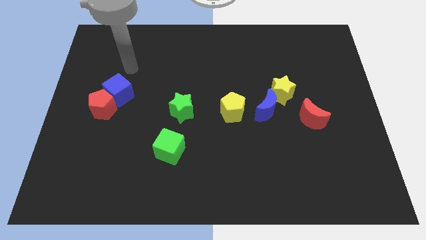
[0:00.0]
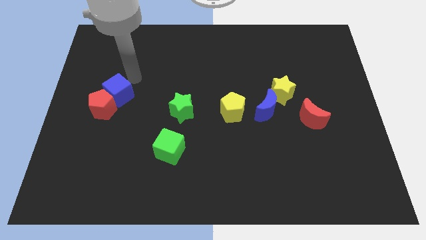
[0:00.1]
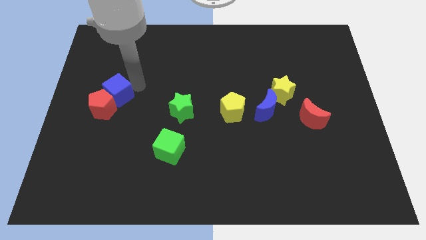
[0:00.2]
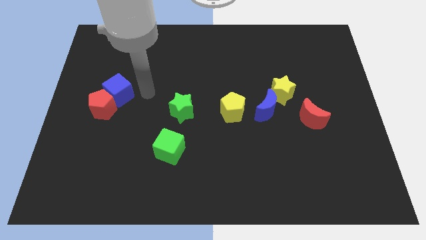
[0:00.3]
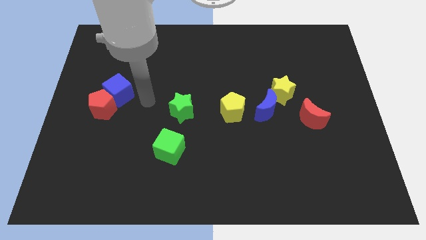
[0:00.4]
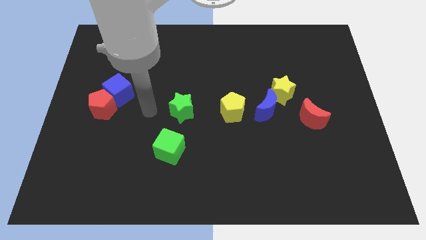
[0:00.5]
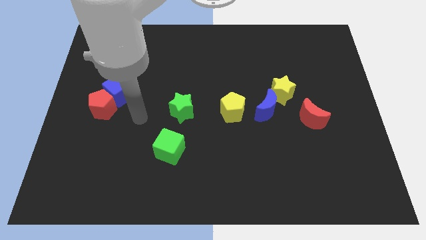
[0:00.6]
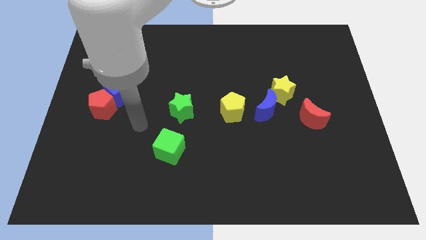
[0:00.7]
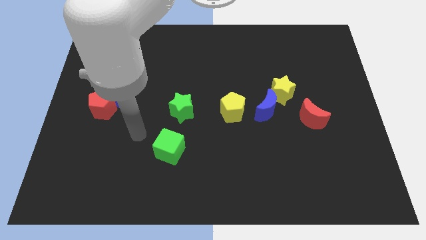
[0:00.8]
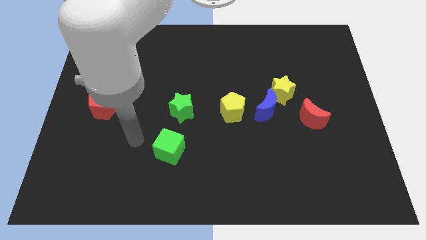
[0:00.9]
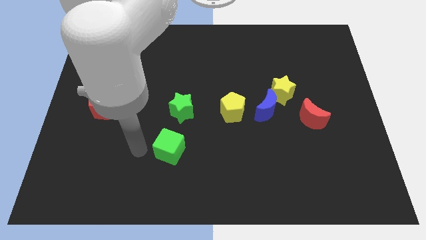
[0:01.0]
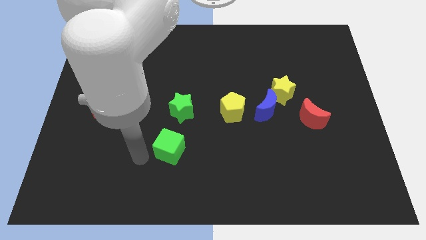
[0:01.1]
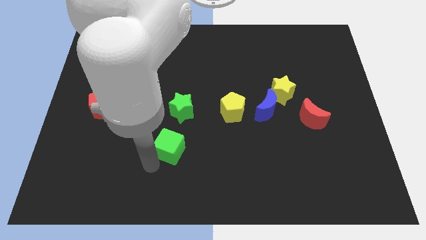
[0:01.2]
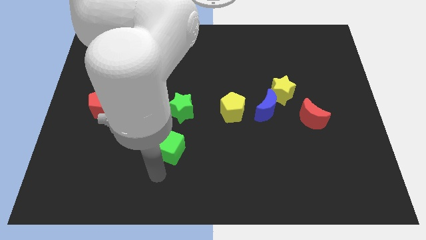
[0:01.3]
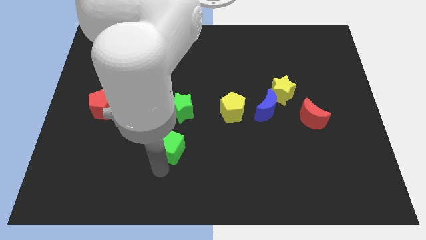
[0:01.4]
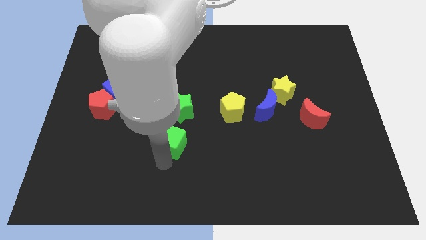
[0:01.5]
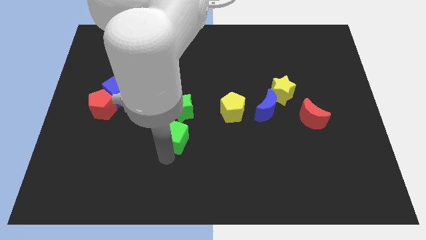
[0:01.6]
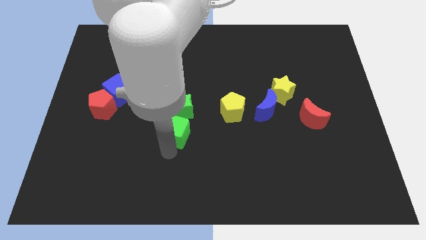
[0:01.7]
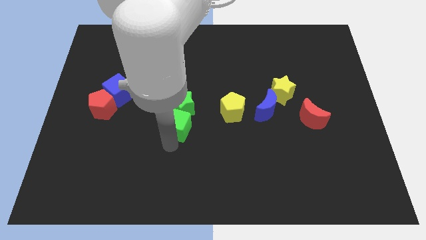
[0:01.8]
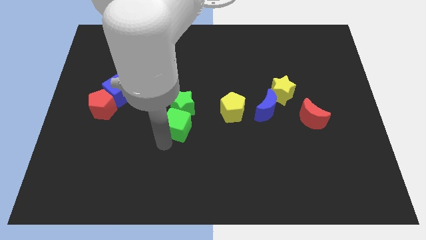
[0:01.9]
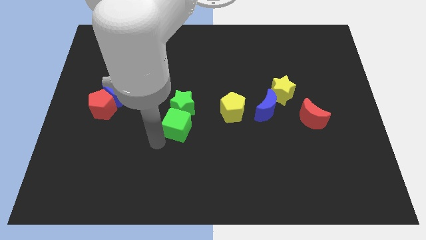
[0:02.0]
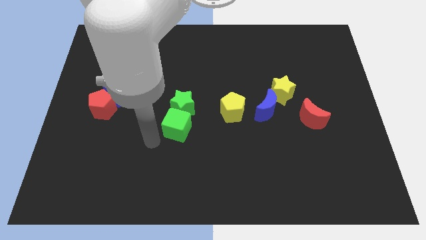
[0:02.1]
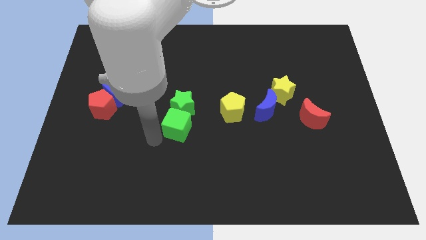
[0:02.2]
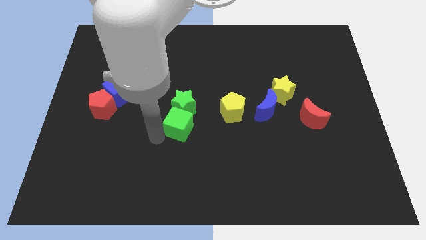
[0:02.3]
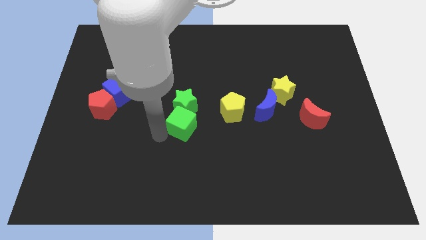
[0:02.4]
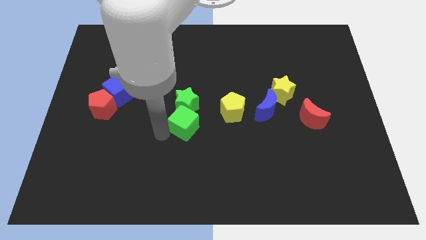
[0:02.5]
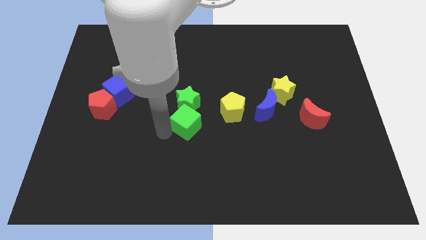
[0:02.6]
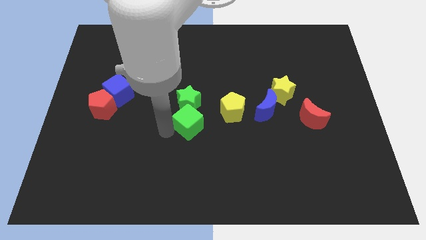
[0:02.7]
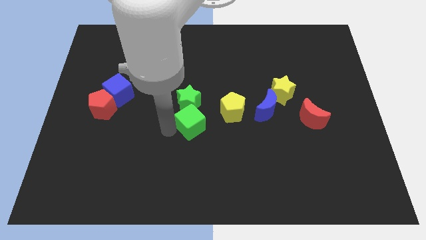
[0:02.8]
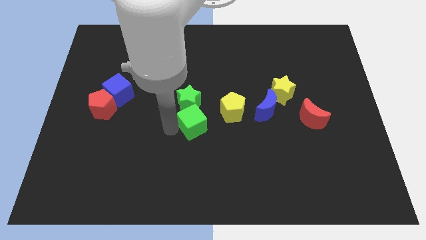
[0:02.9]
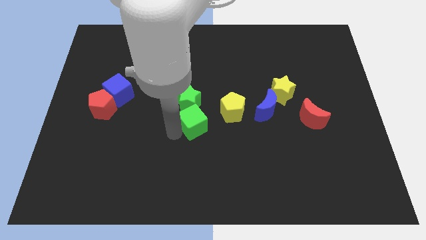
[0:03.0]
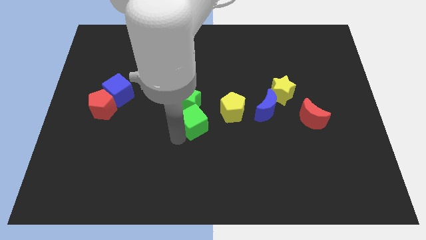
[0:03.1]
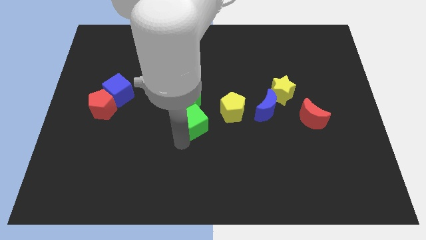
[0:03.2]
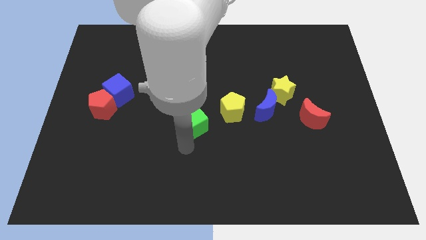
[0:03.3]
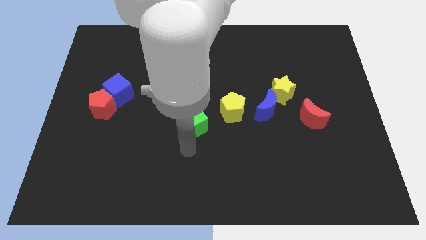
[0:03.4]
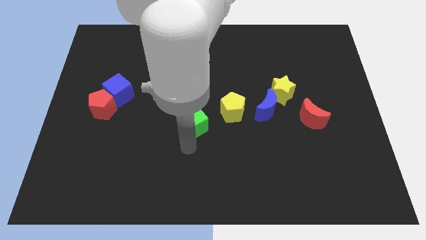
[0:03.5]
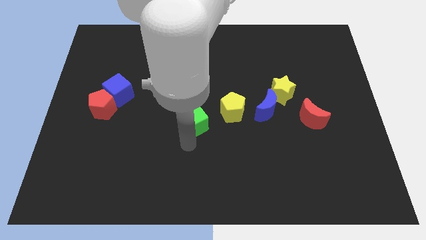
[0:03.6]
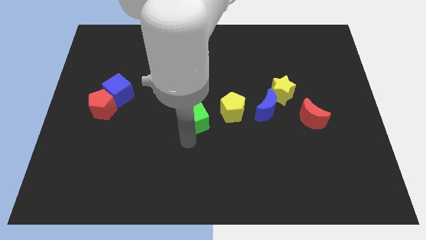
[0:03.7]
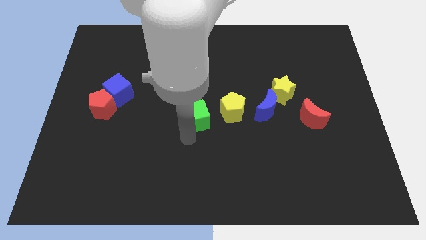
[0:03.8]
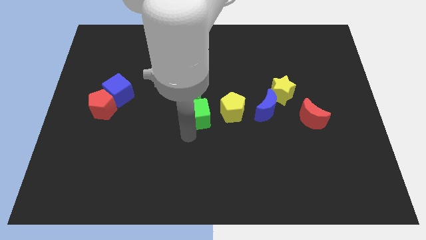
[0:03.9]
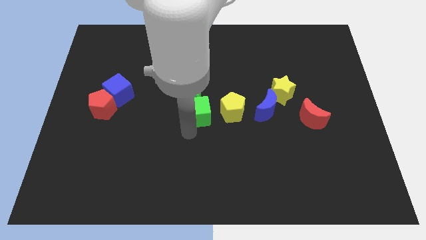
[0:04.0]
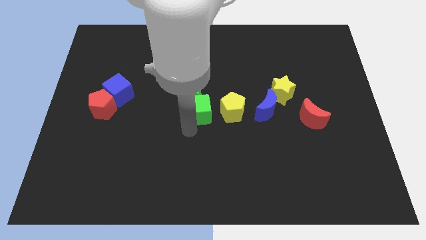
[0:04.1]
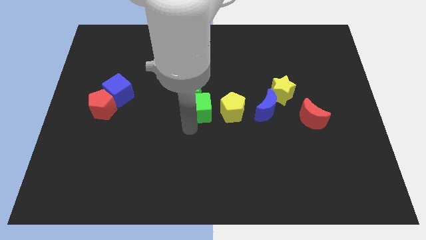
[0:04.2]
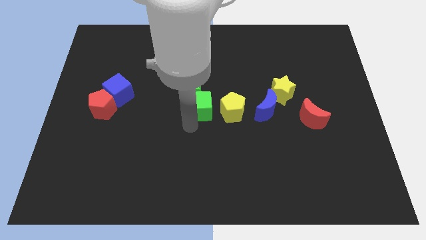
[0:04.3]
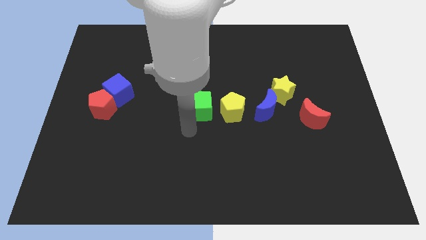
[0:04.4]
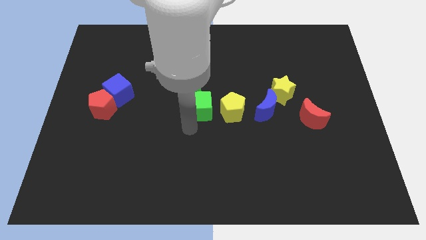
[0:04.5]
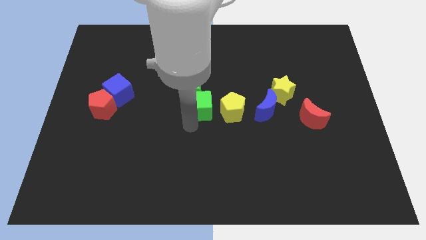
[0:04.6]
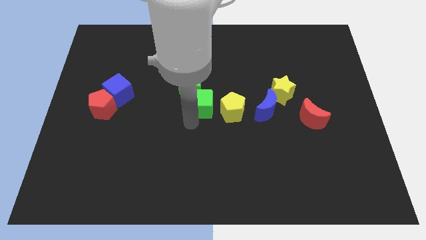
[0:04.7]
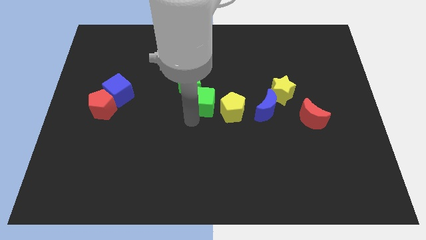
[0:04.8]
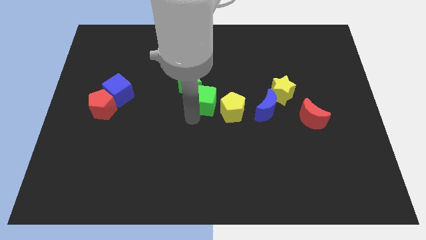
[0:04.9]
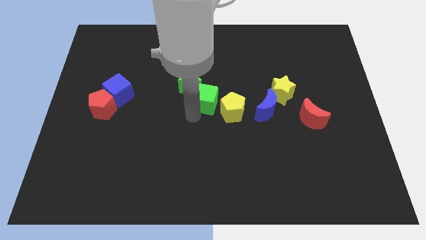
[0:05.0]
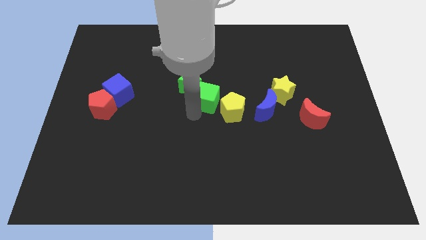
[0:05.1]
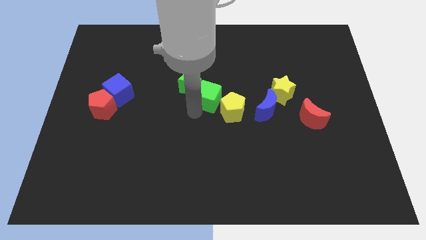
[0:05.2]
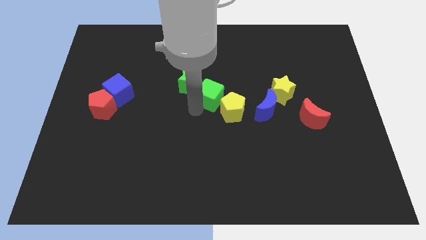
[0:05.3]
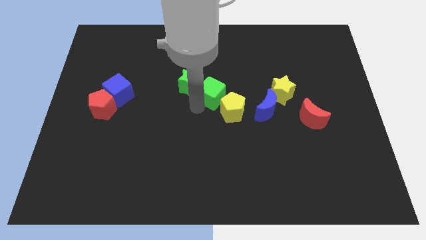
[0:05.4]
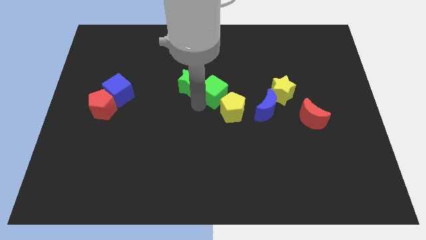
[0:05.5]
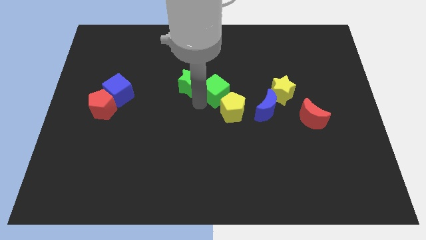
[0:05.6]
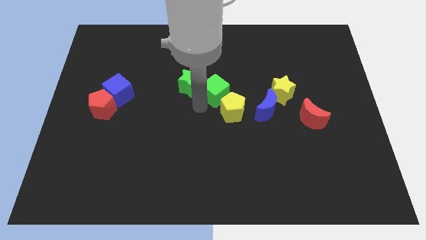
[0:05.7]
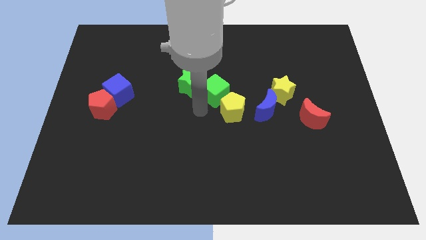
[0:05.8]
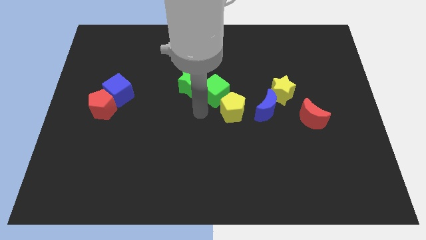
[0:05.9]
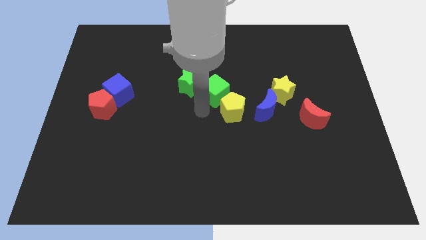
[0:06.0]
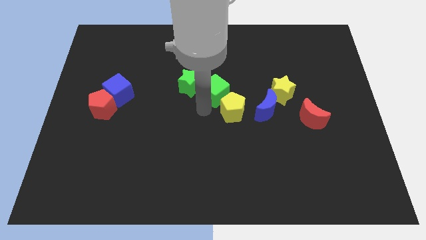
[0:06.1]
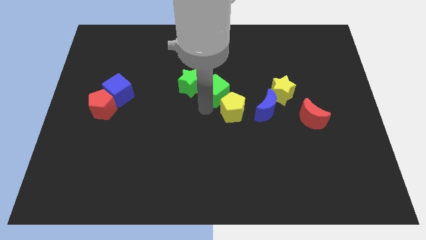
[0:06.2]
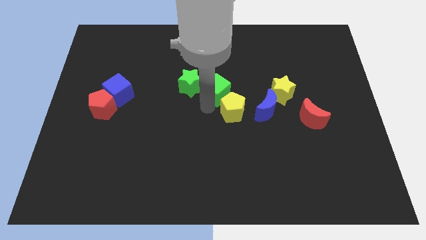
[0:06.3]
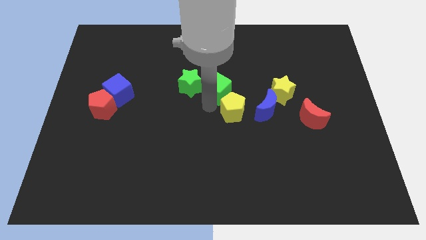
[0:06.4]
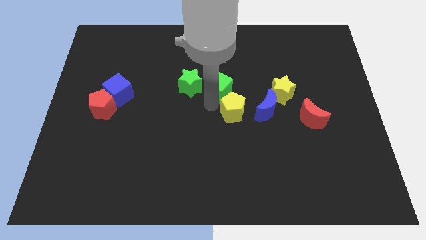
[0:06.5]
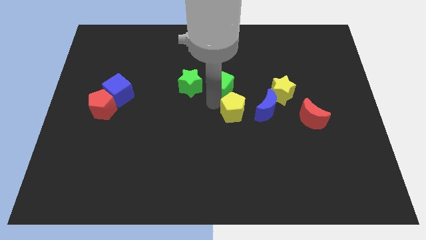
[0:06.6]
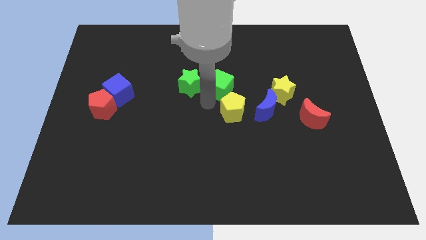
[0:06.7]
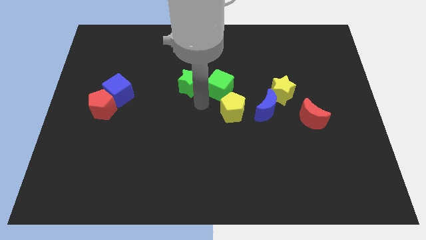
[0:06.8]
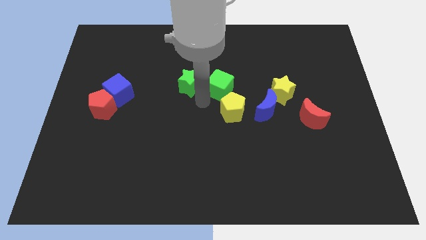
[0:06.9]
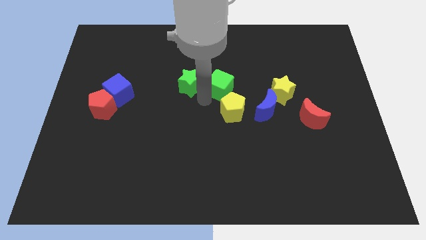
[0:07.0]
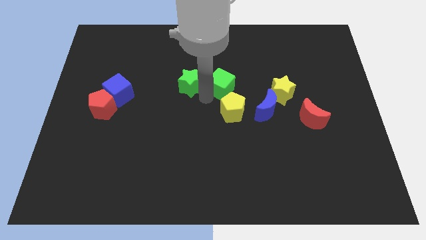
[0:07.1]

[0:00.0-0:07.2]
slide the green cube diagonally up and to the right

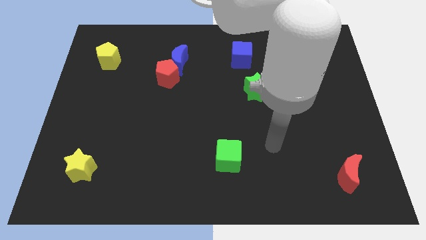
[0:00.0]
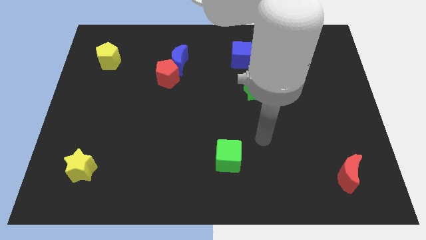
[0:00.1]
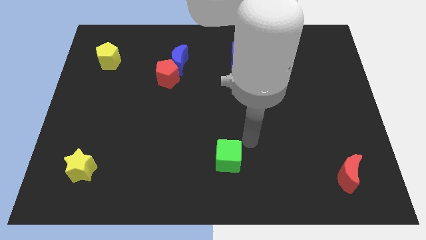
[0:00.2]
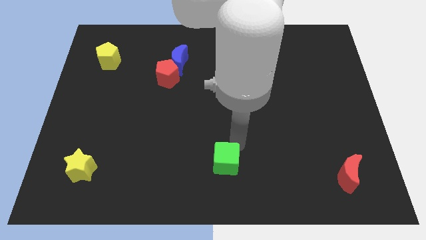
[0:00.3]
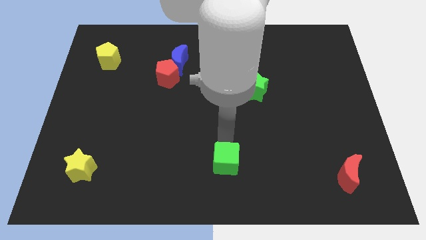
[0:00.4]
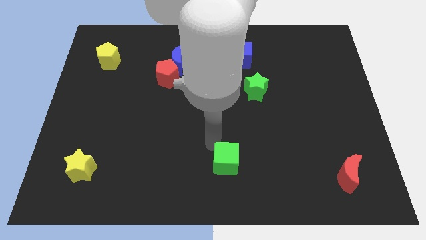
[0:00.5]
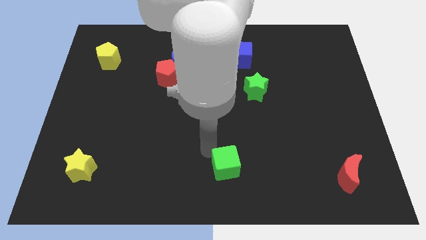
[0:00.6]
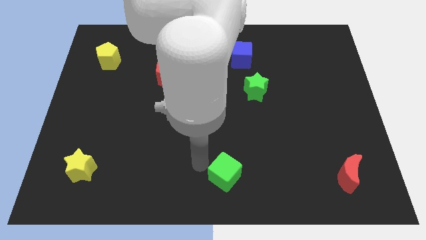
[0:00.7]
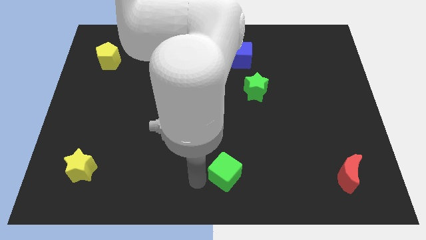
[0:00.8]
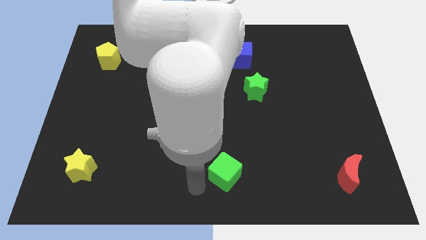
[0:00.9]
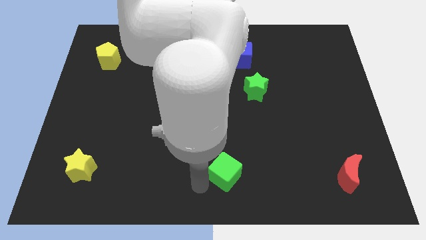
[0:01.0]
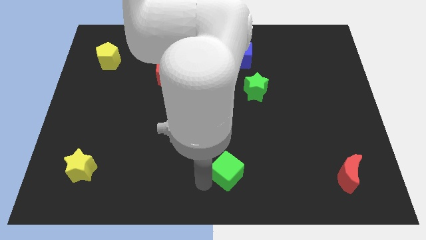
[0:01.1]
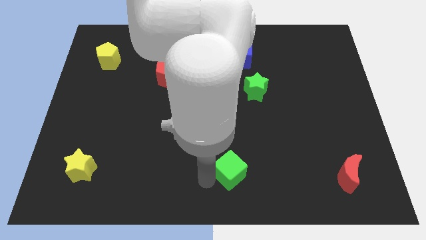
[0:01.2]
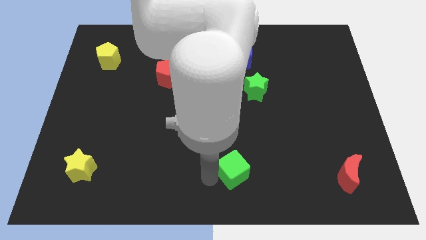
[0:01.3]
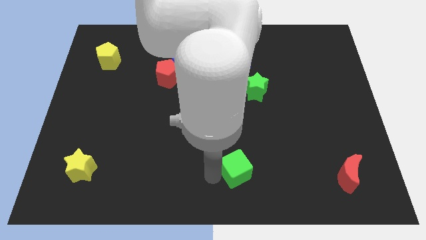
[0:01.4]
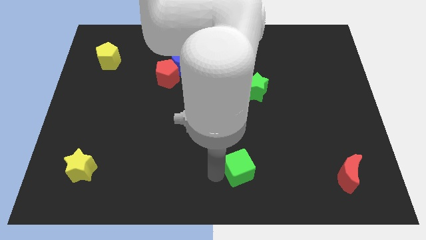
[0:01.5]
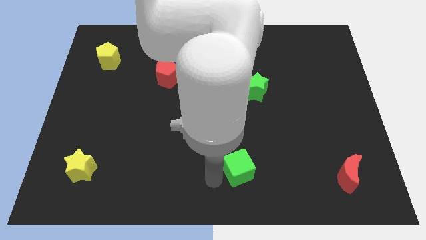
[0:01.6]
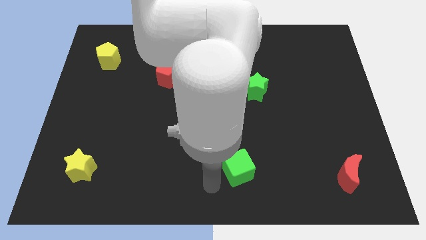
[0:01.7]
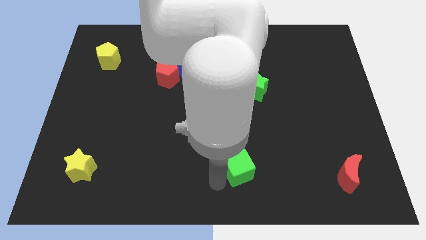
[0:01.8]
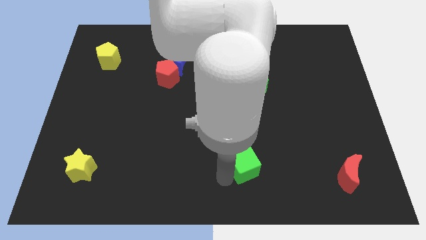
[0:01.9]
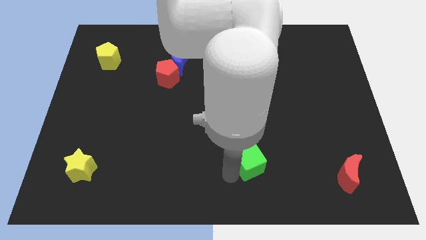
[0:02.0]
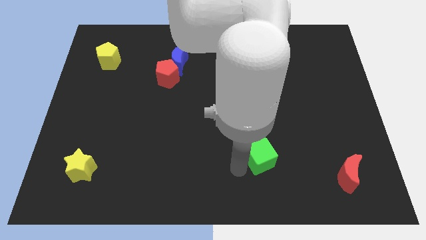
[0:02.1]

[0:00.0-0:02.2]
slightly slide the green cube right
